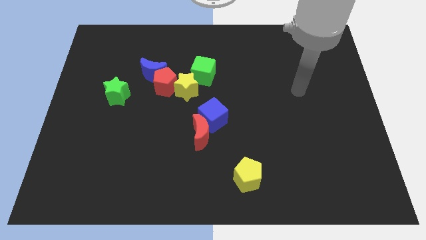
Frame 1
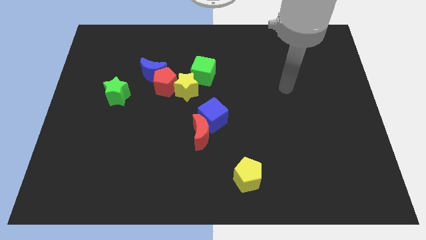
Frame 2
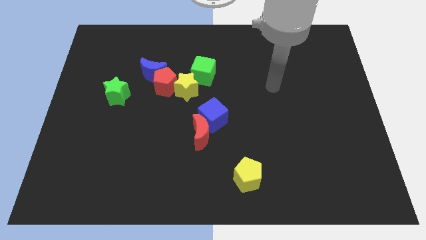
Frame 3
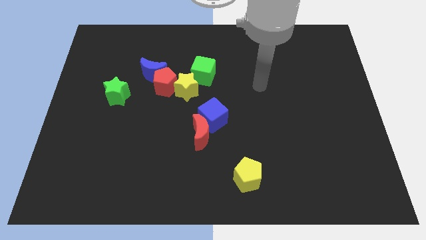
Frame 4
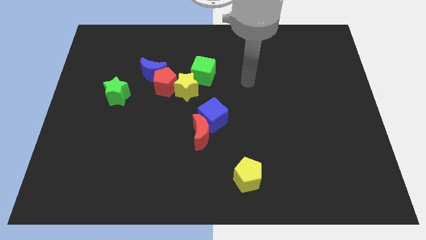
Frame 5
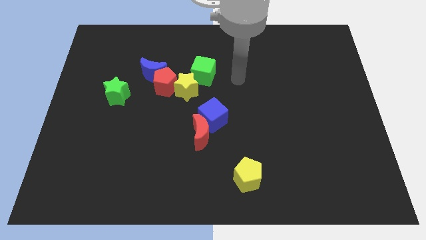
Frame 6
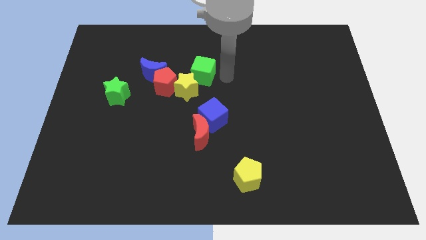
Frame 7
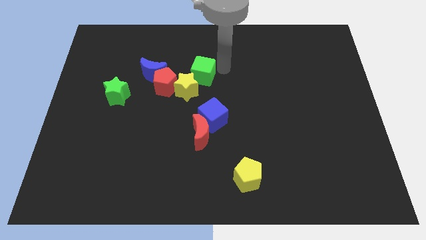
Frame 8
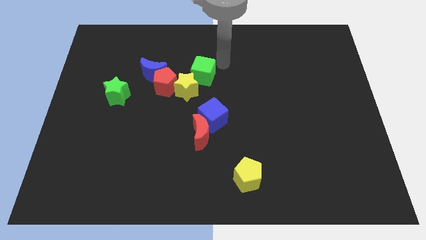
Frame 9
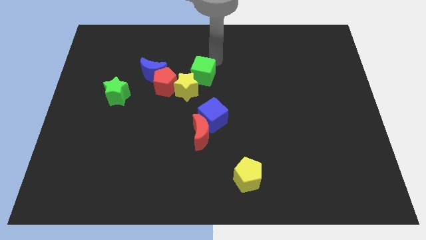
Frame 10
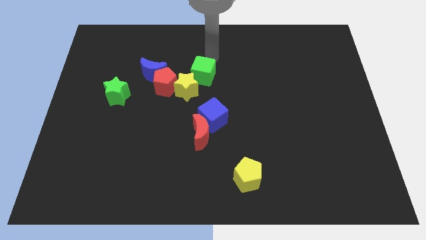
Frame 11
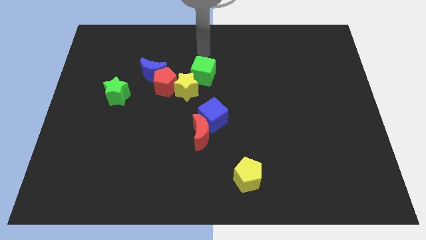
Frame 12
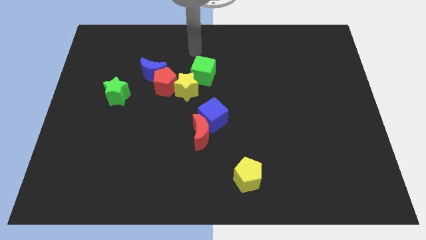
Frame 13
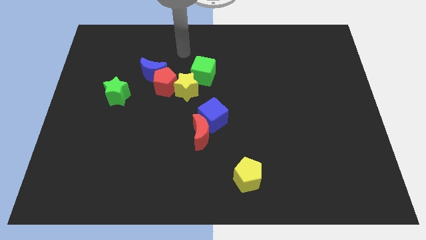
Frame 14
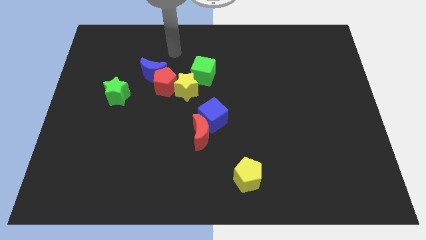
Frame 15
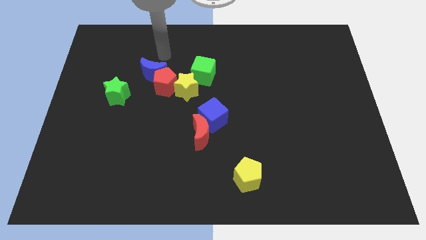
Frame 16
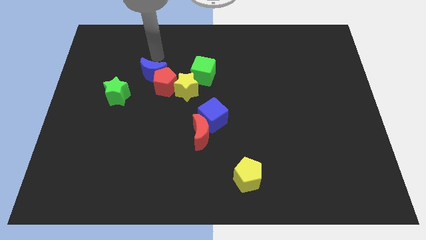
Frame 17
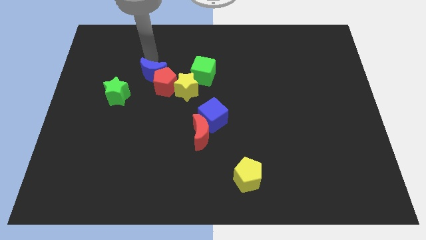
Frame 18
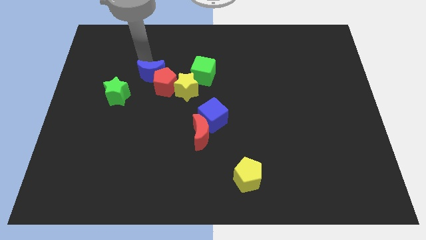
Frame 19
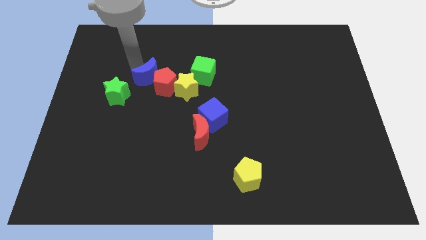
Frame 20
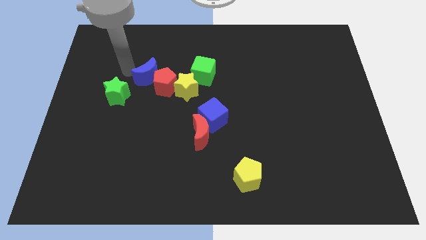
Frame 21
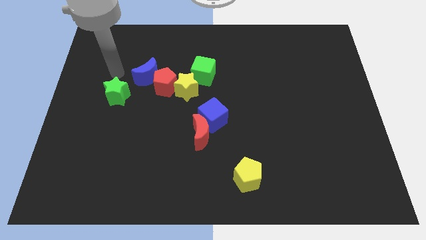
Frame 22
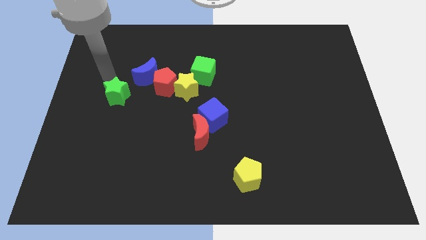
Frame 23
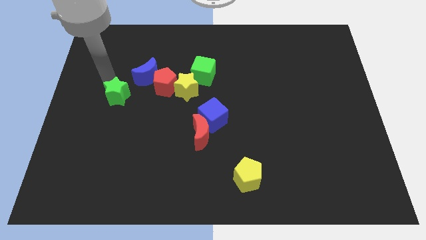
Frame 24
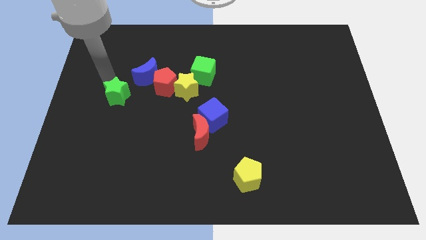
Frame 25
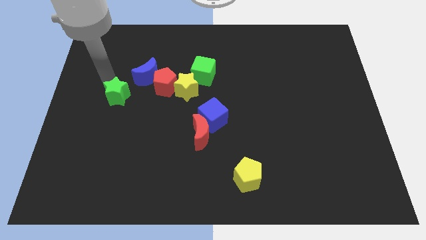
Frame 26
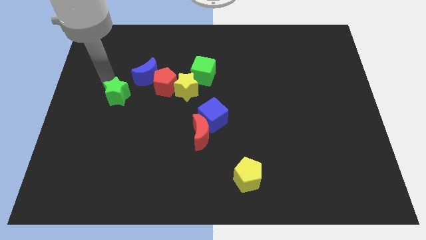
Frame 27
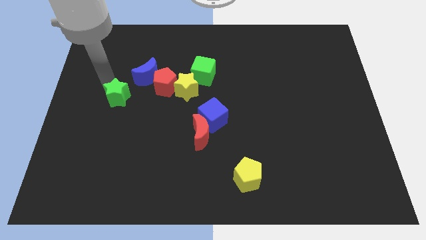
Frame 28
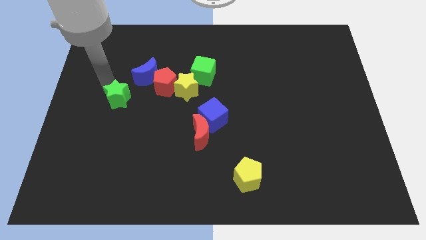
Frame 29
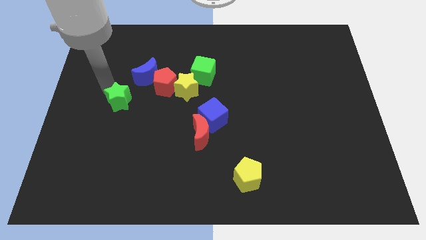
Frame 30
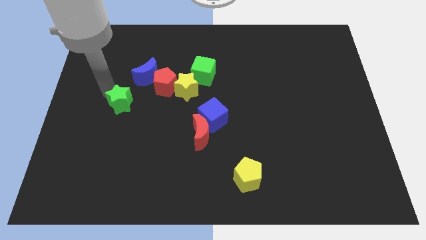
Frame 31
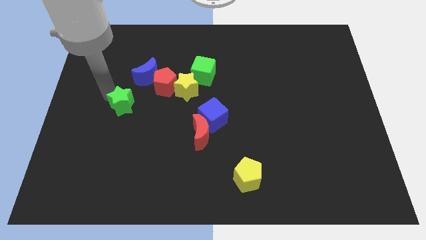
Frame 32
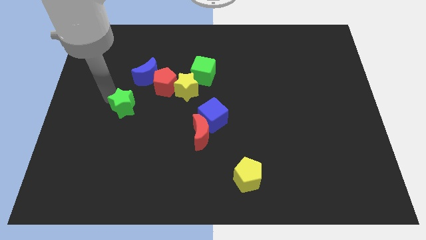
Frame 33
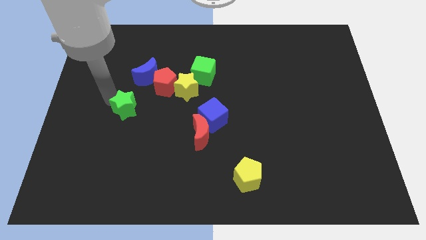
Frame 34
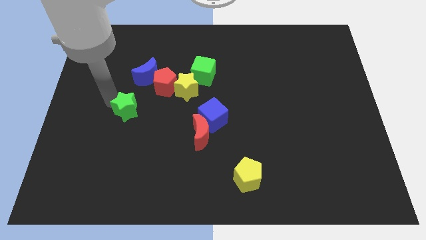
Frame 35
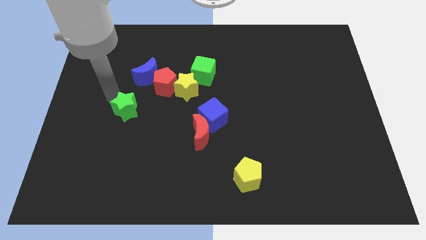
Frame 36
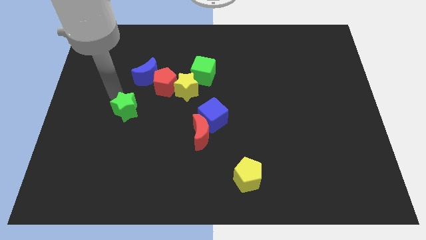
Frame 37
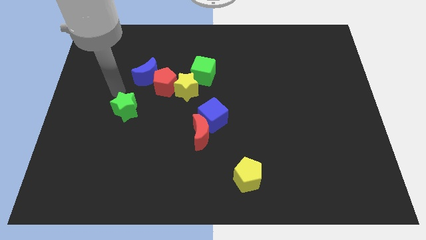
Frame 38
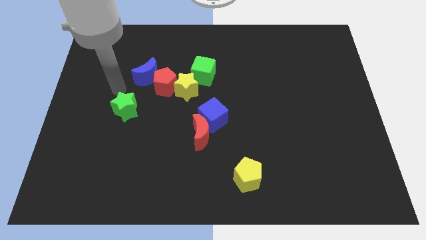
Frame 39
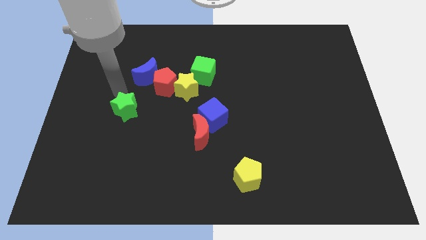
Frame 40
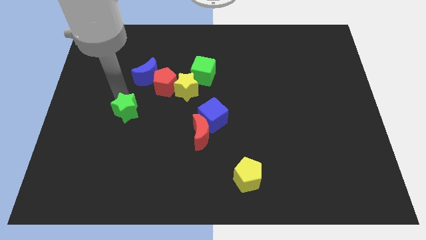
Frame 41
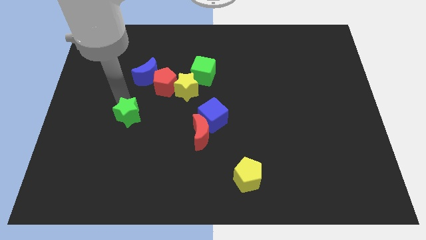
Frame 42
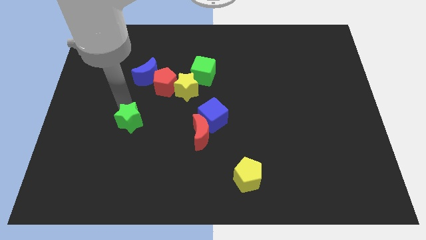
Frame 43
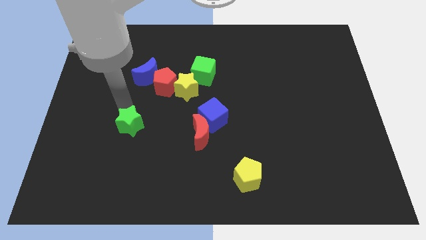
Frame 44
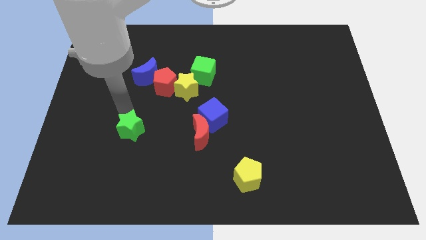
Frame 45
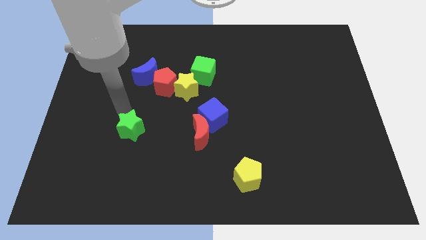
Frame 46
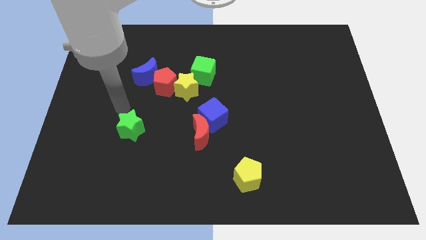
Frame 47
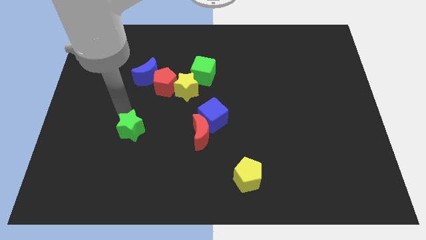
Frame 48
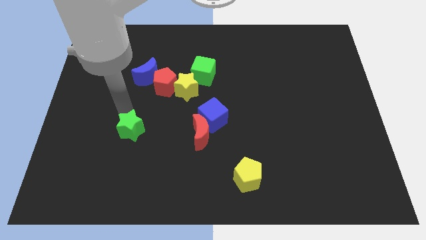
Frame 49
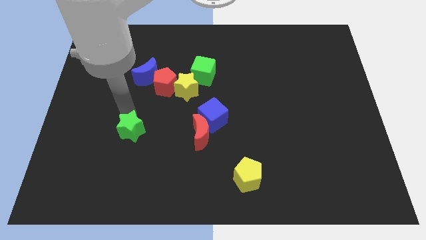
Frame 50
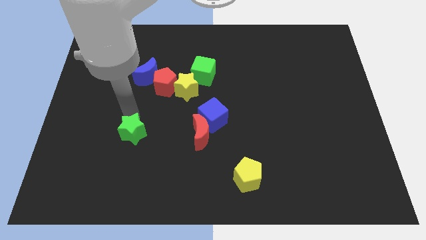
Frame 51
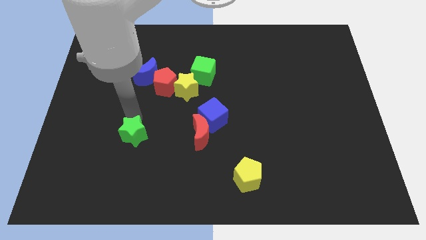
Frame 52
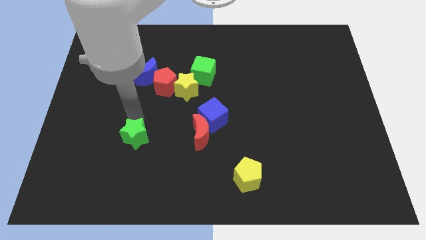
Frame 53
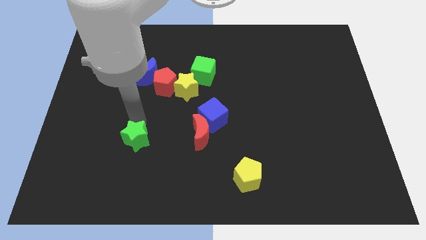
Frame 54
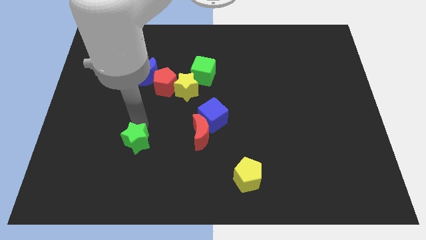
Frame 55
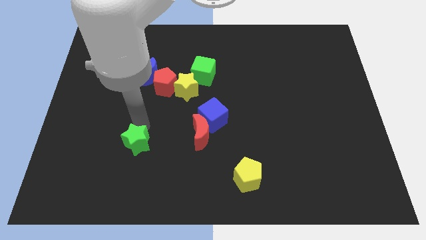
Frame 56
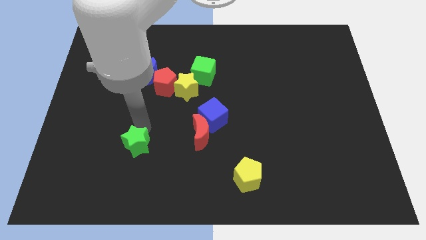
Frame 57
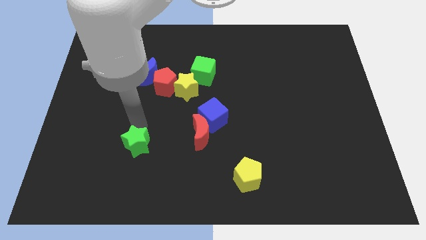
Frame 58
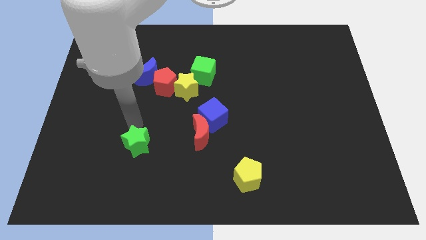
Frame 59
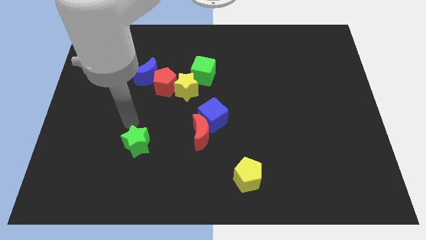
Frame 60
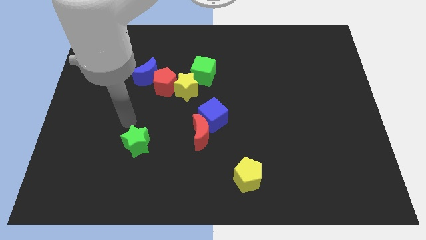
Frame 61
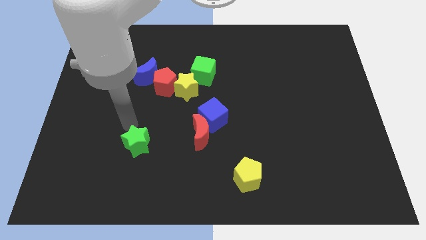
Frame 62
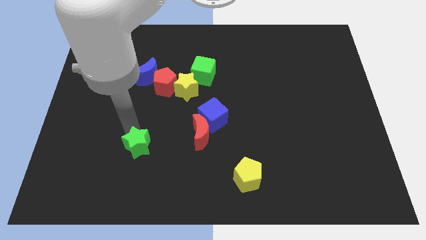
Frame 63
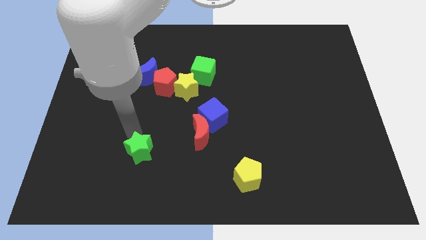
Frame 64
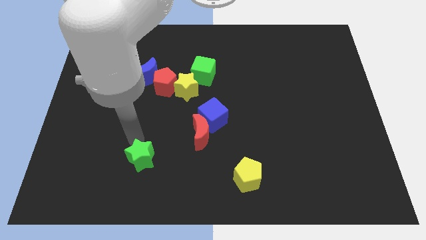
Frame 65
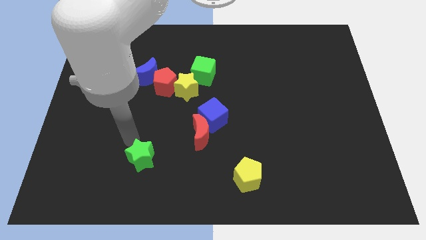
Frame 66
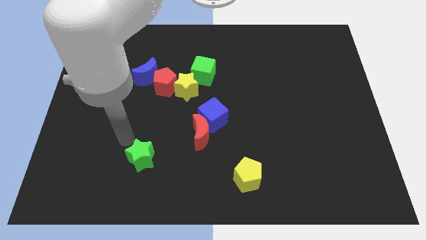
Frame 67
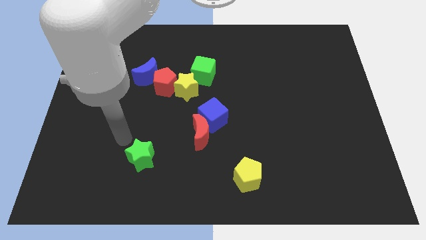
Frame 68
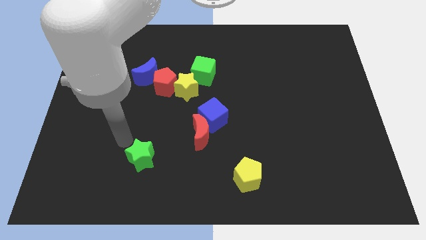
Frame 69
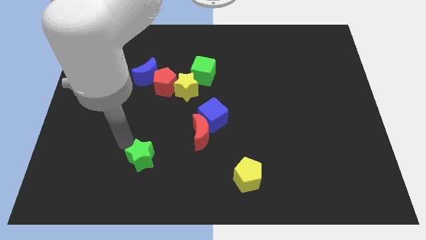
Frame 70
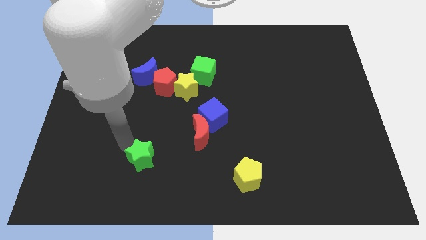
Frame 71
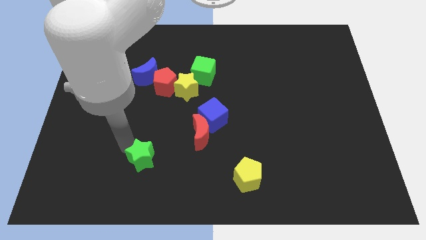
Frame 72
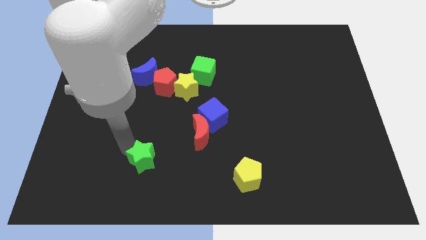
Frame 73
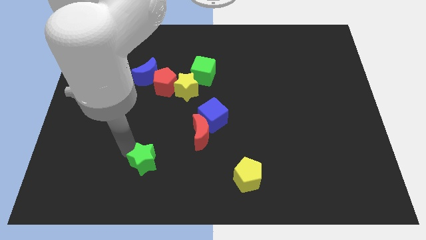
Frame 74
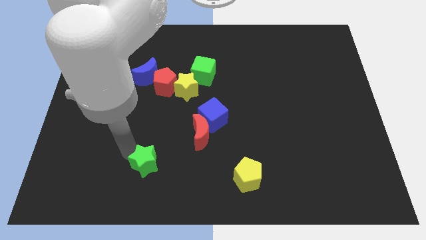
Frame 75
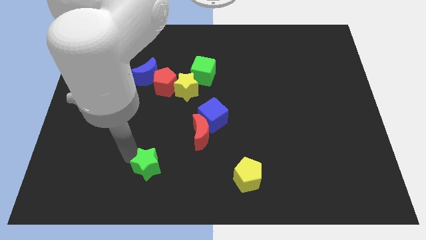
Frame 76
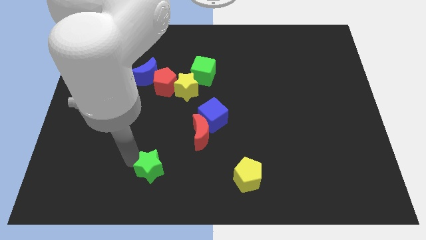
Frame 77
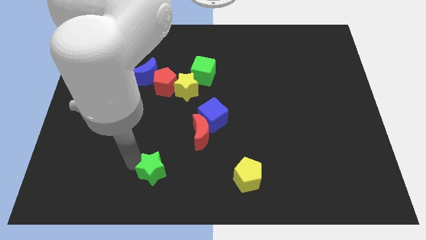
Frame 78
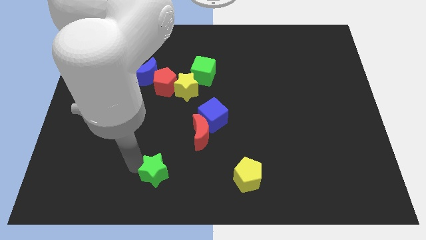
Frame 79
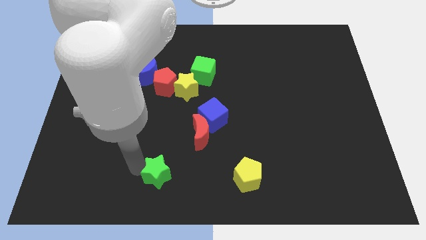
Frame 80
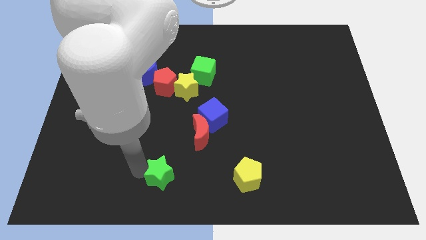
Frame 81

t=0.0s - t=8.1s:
push the green star to the bottom side
